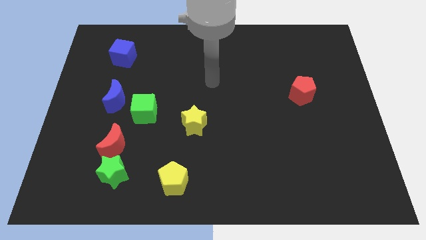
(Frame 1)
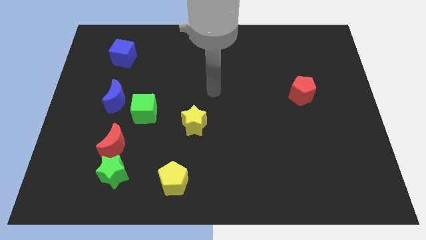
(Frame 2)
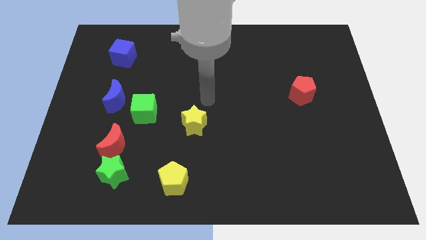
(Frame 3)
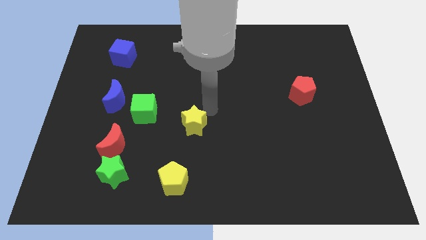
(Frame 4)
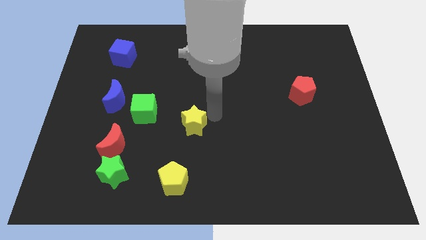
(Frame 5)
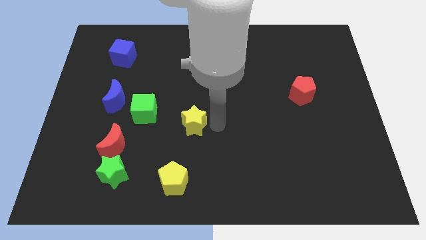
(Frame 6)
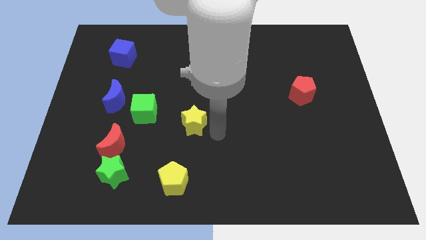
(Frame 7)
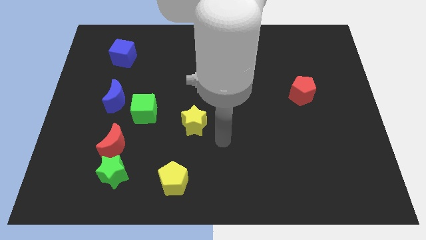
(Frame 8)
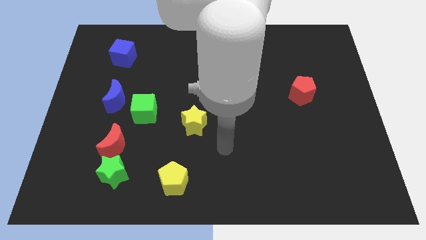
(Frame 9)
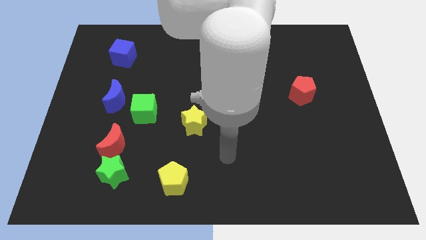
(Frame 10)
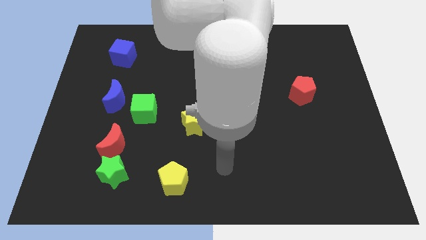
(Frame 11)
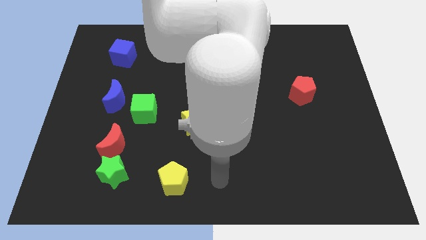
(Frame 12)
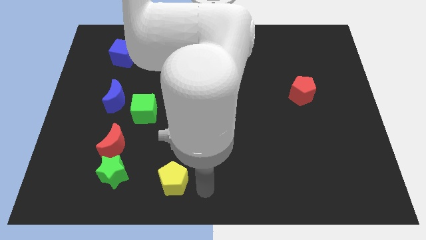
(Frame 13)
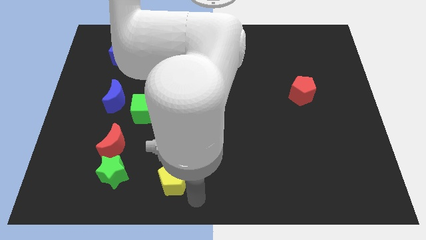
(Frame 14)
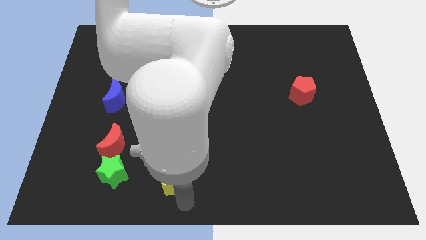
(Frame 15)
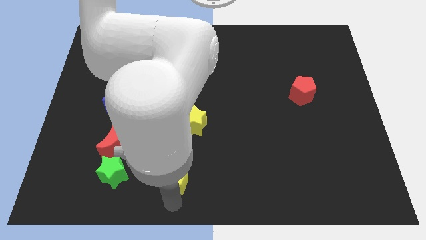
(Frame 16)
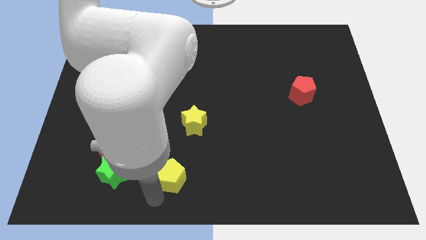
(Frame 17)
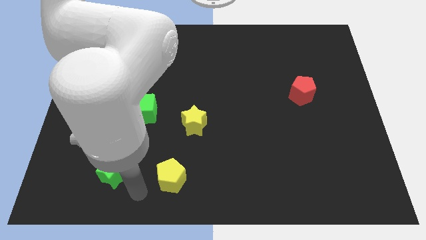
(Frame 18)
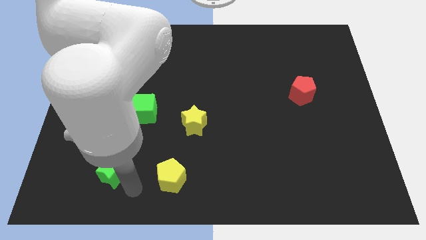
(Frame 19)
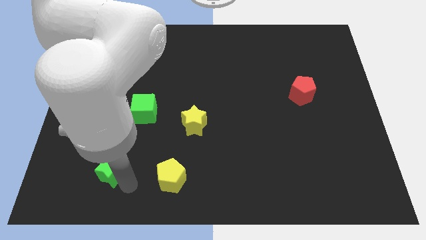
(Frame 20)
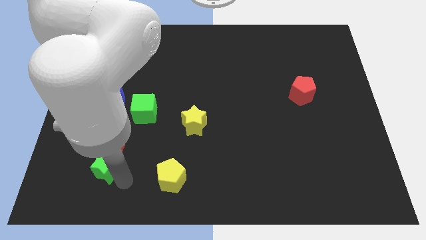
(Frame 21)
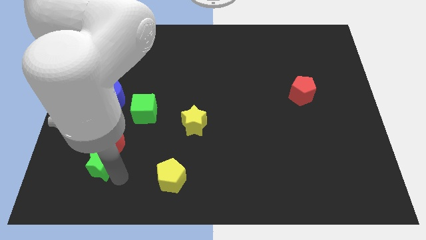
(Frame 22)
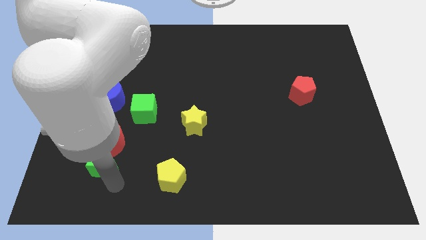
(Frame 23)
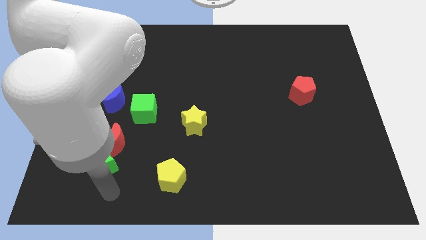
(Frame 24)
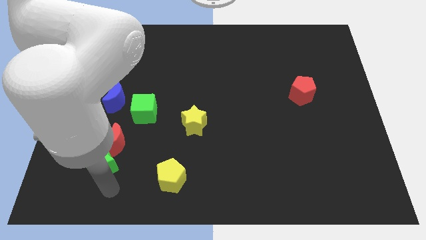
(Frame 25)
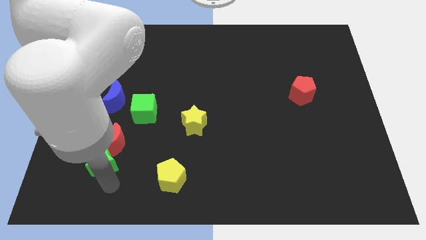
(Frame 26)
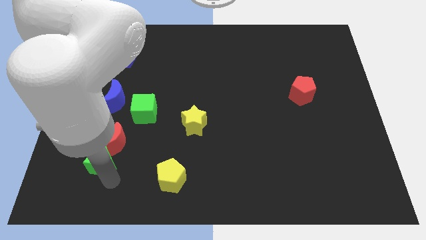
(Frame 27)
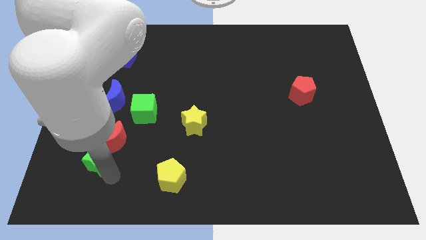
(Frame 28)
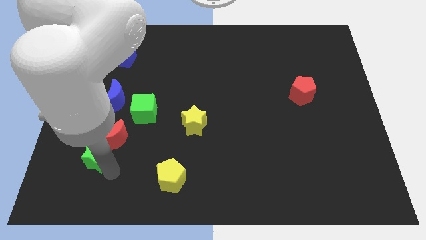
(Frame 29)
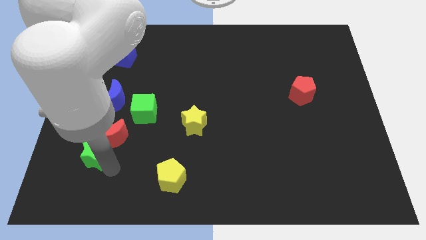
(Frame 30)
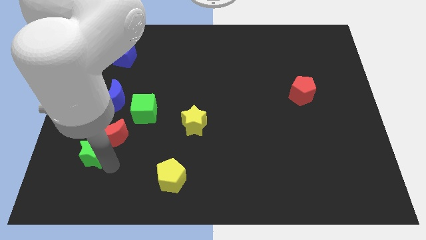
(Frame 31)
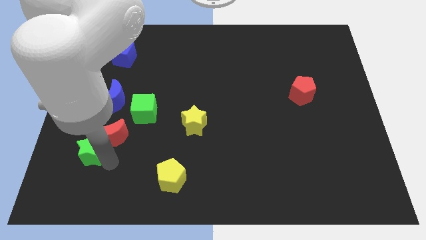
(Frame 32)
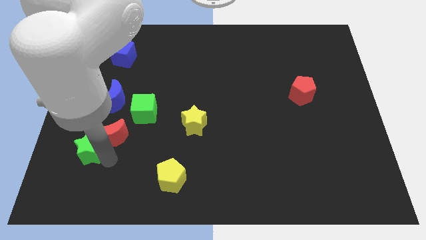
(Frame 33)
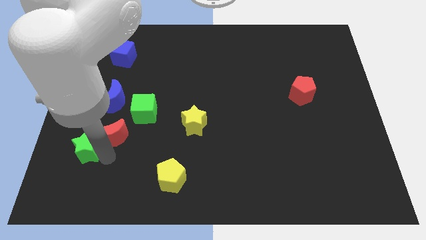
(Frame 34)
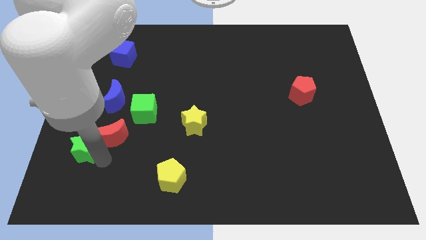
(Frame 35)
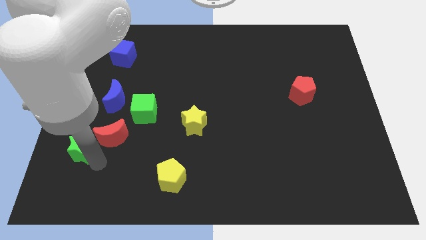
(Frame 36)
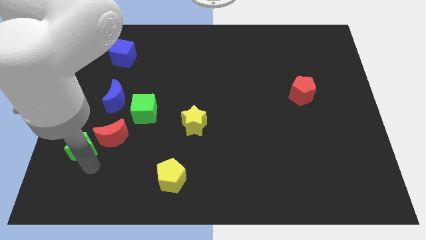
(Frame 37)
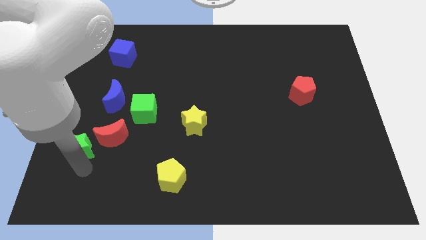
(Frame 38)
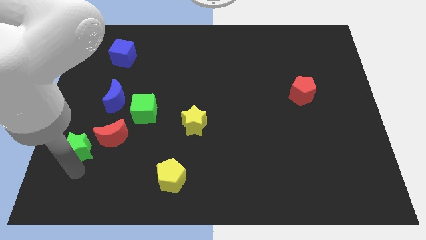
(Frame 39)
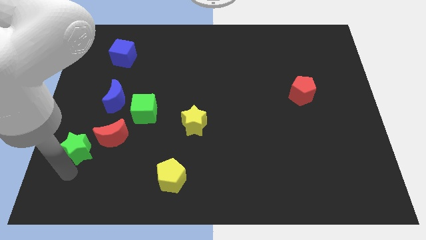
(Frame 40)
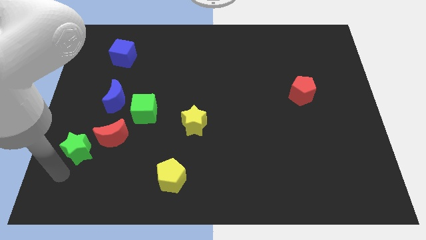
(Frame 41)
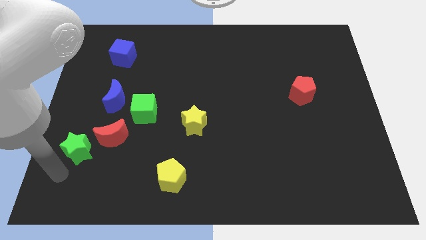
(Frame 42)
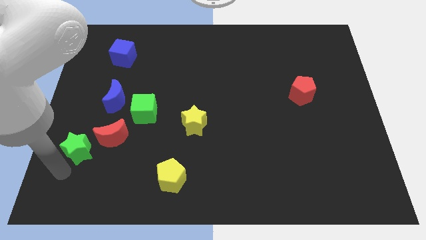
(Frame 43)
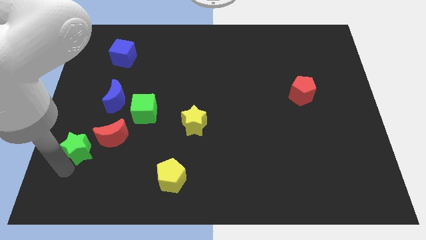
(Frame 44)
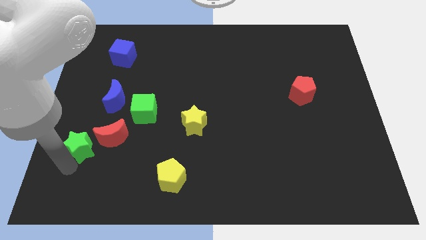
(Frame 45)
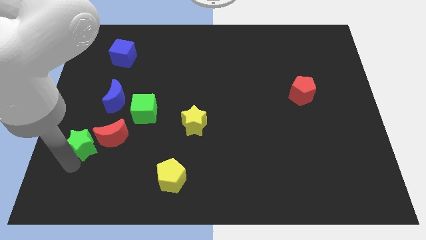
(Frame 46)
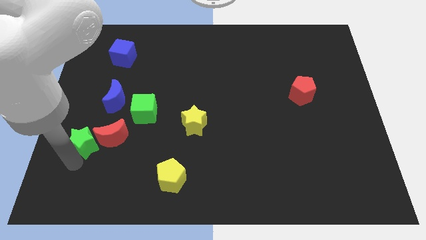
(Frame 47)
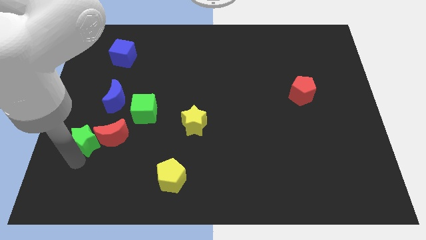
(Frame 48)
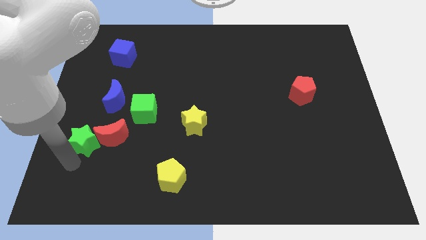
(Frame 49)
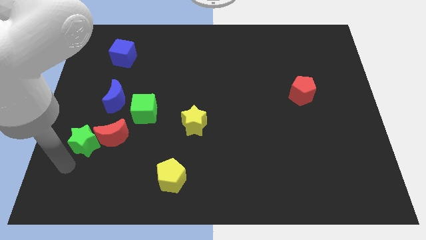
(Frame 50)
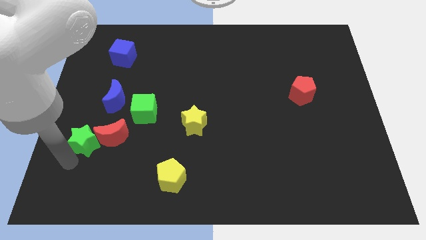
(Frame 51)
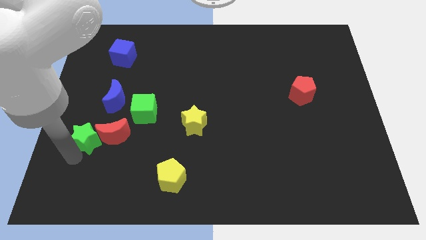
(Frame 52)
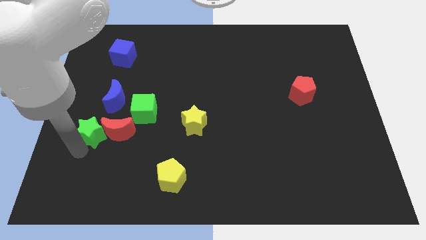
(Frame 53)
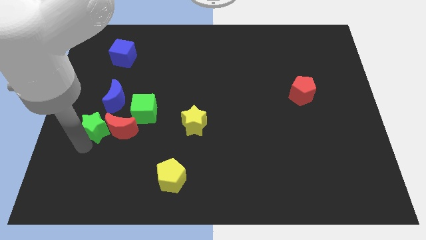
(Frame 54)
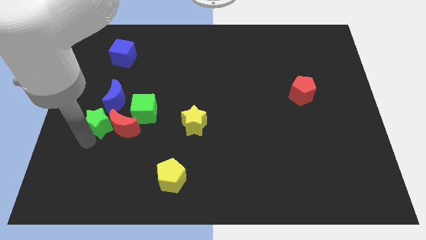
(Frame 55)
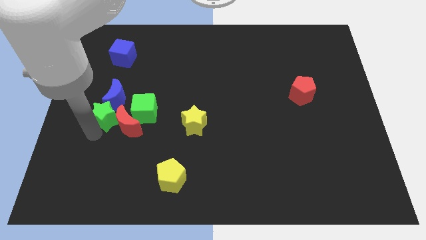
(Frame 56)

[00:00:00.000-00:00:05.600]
put the green star towards the blue moon

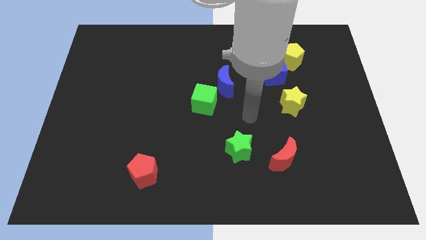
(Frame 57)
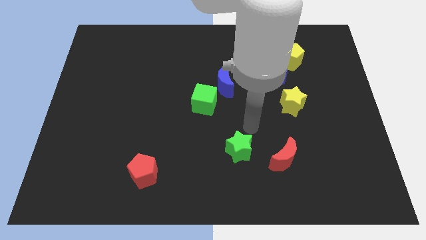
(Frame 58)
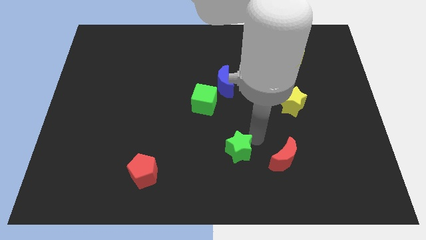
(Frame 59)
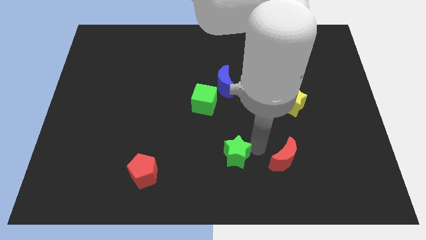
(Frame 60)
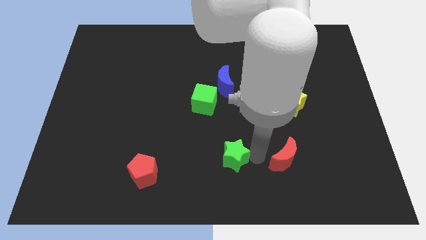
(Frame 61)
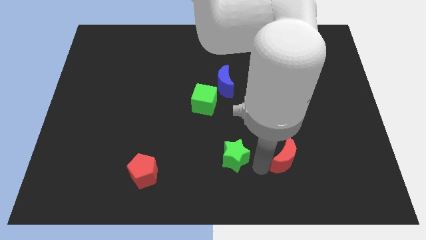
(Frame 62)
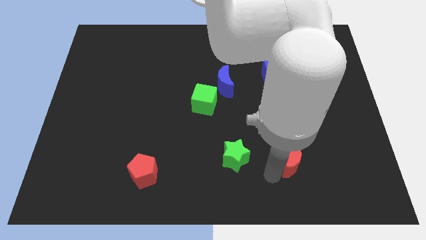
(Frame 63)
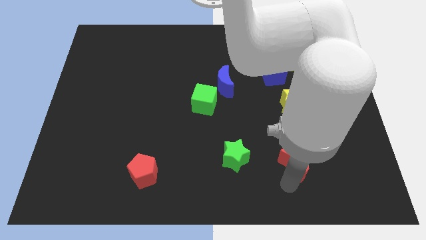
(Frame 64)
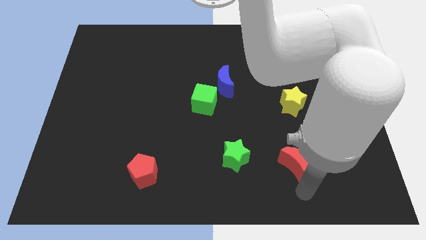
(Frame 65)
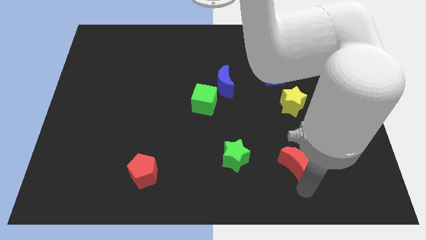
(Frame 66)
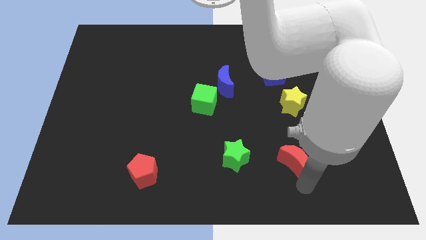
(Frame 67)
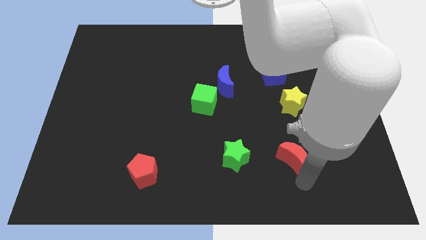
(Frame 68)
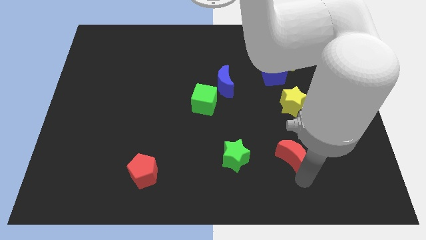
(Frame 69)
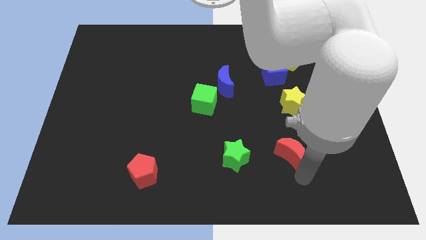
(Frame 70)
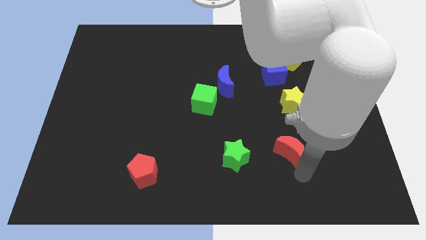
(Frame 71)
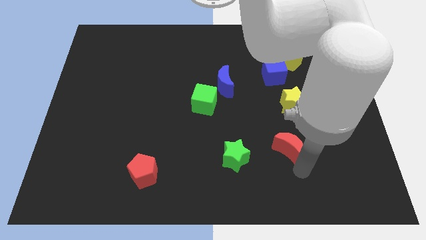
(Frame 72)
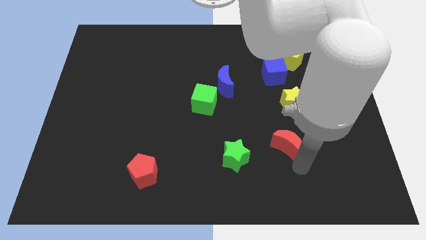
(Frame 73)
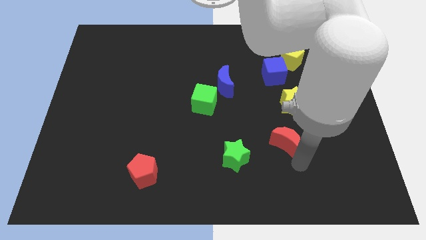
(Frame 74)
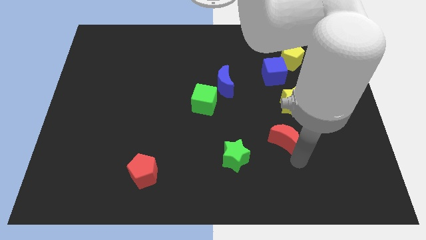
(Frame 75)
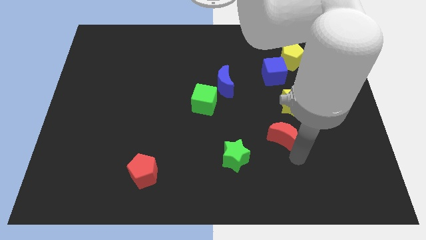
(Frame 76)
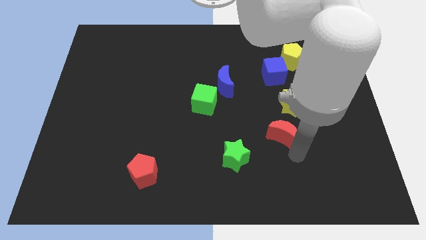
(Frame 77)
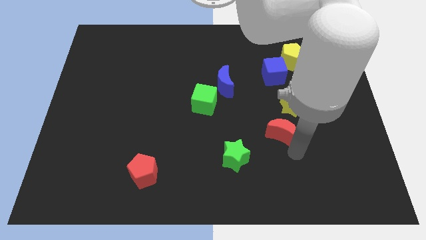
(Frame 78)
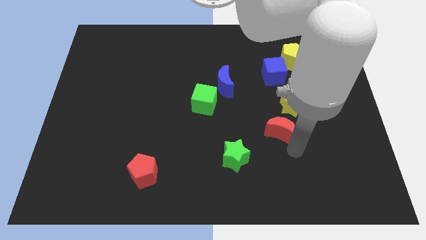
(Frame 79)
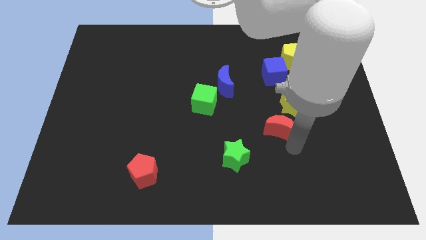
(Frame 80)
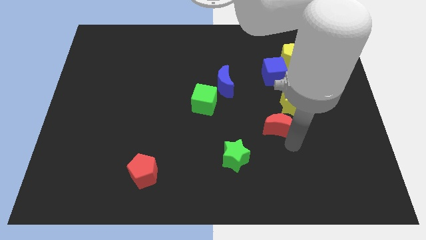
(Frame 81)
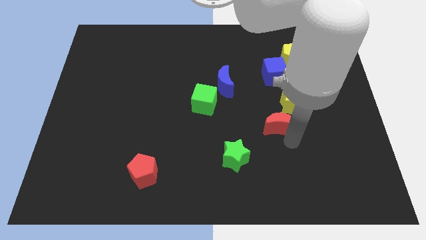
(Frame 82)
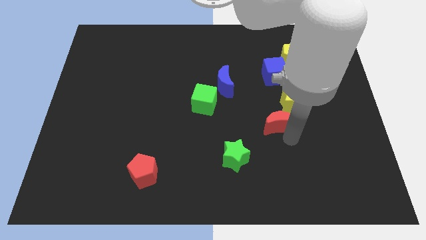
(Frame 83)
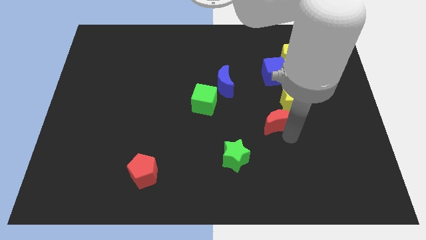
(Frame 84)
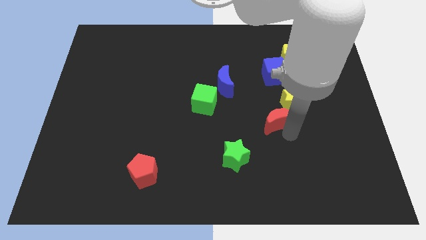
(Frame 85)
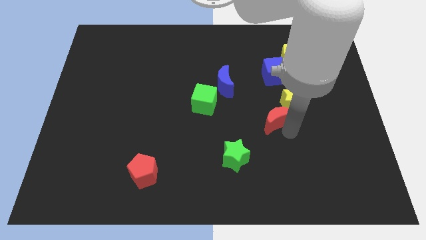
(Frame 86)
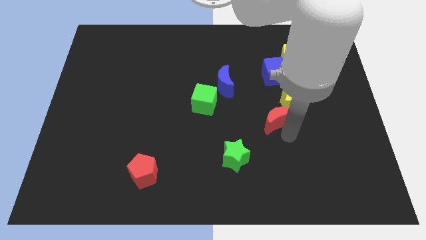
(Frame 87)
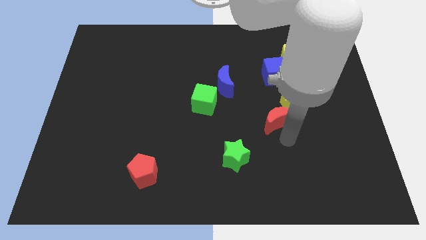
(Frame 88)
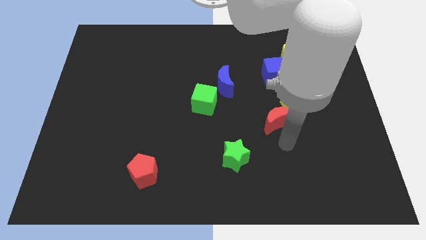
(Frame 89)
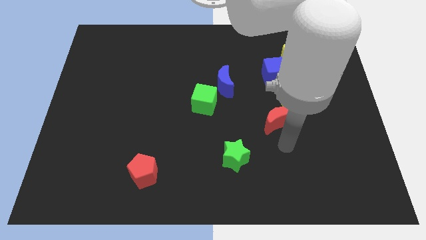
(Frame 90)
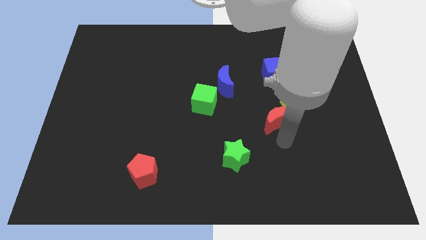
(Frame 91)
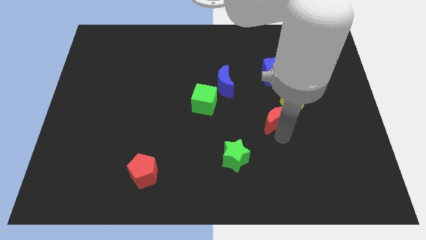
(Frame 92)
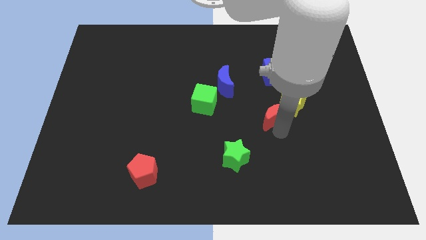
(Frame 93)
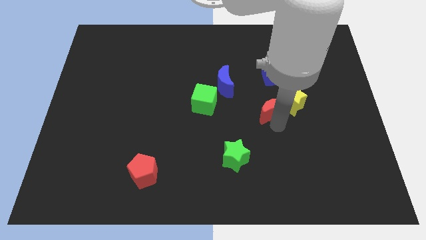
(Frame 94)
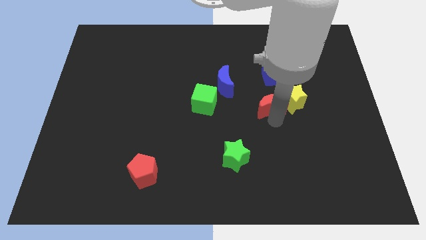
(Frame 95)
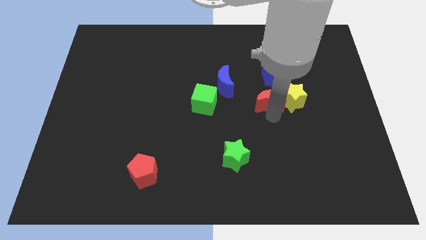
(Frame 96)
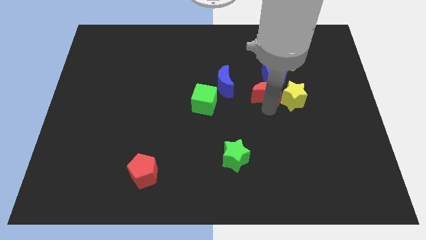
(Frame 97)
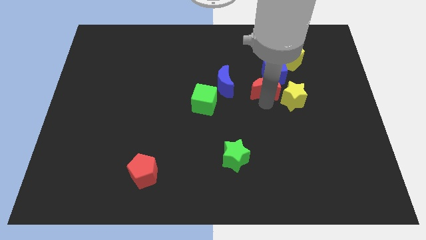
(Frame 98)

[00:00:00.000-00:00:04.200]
push the red moon towards the blue cube
